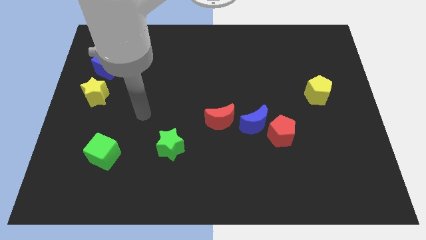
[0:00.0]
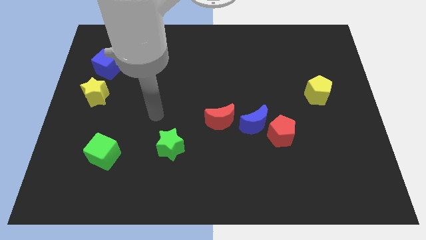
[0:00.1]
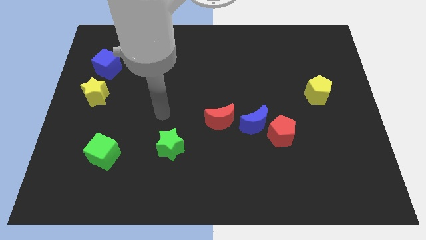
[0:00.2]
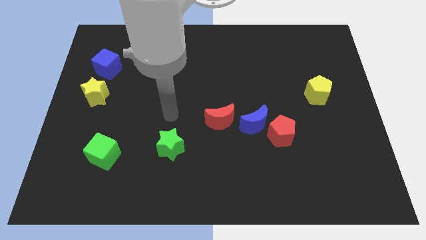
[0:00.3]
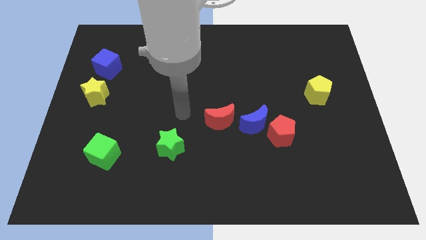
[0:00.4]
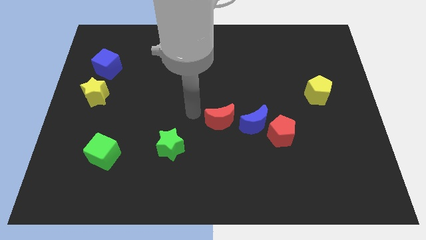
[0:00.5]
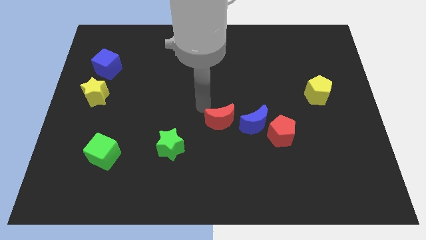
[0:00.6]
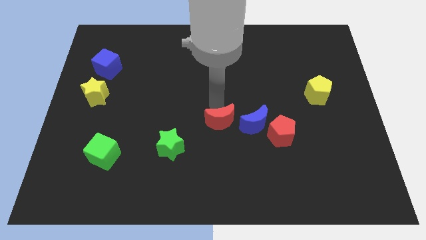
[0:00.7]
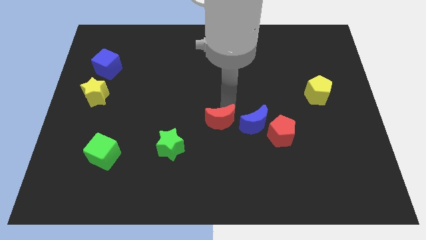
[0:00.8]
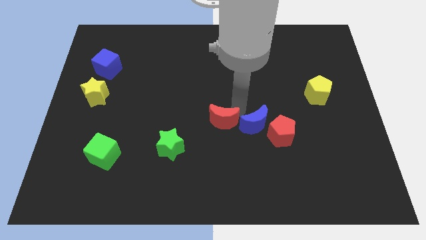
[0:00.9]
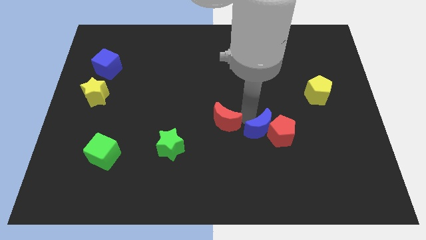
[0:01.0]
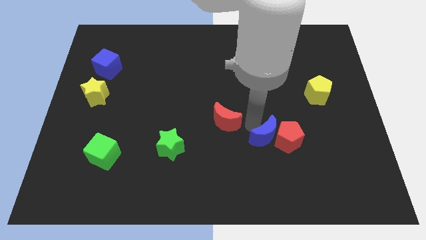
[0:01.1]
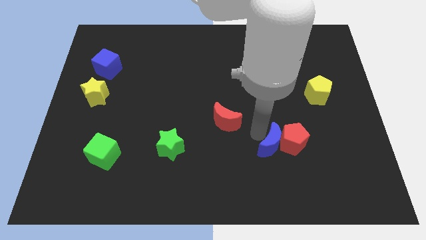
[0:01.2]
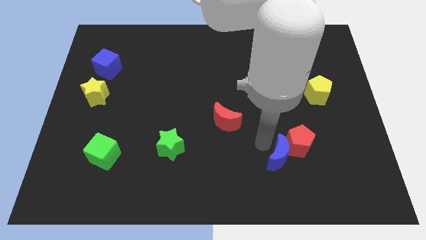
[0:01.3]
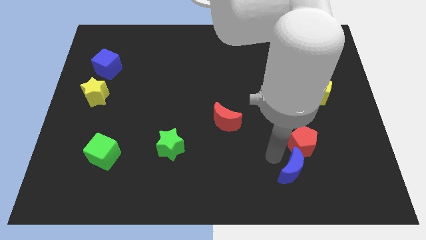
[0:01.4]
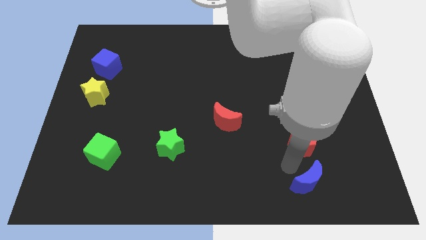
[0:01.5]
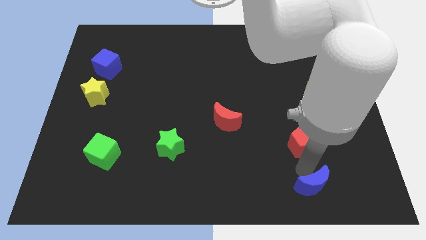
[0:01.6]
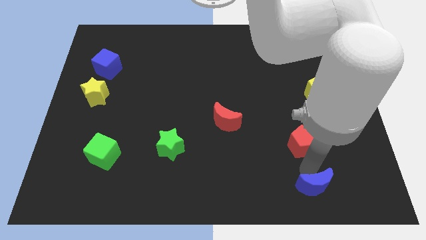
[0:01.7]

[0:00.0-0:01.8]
move the red pentagon away from the blue moon

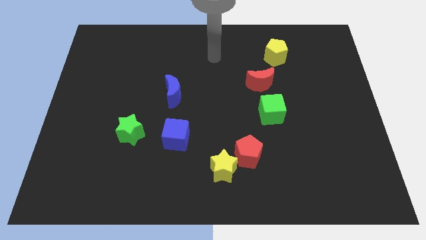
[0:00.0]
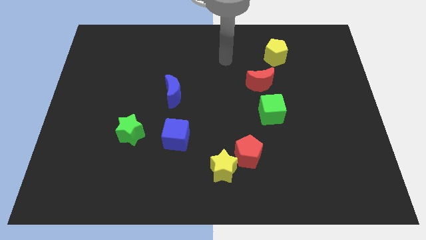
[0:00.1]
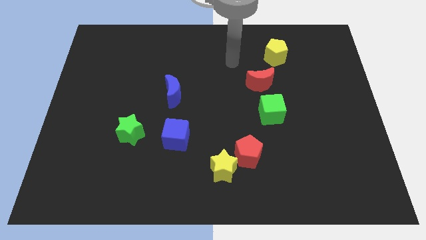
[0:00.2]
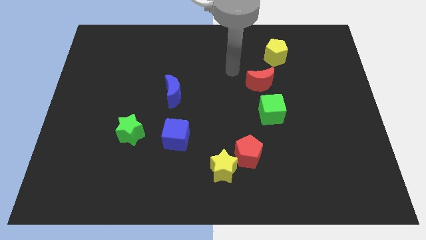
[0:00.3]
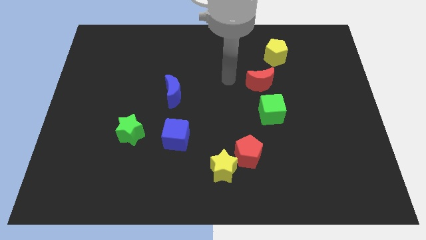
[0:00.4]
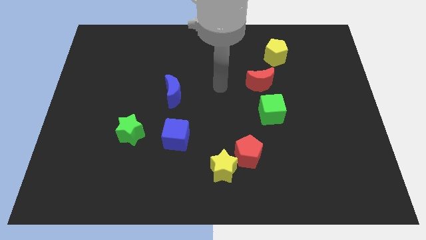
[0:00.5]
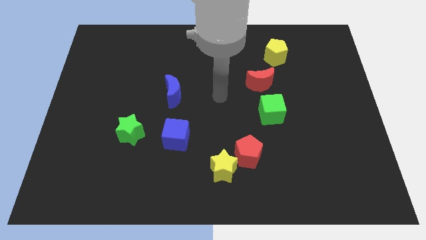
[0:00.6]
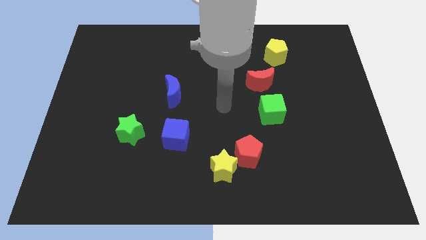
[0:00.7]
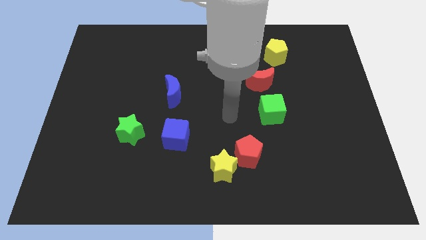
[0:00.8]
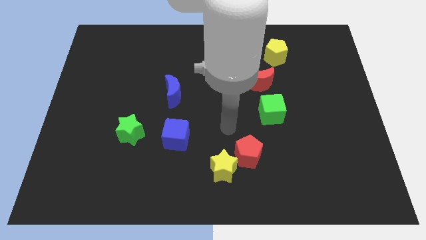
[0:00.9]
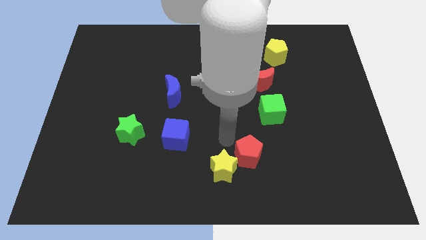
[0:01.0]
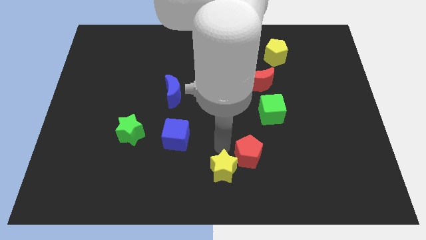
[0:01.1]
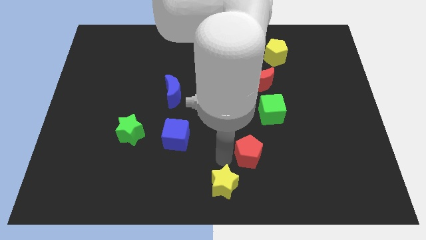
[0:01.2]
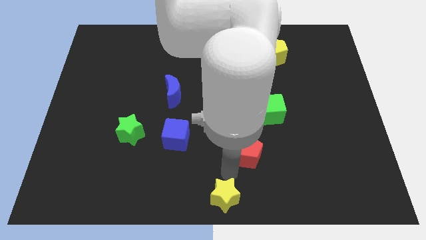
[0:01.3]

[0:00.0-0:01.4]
move the red pentagon away from the yellow star

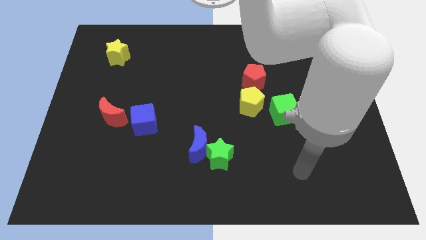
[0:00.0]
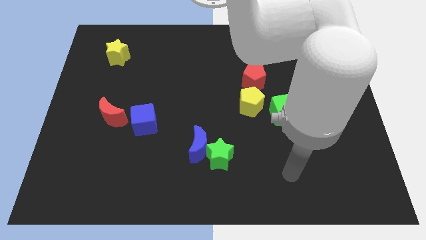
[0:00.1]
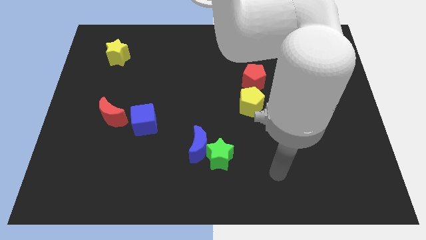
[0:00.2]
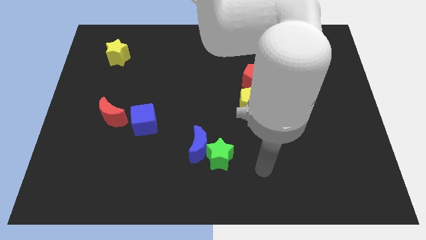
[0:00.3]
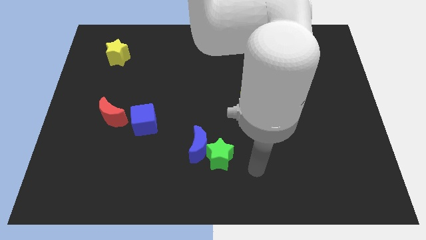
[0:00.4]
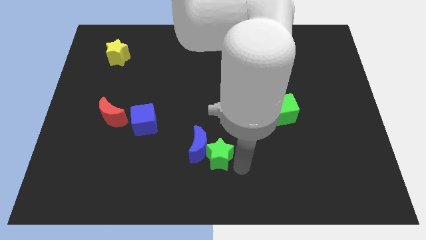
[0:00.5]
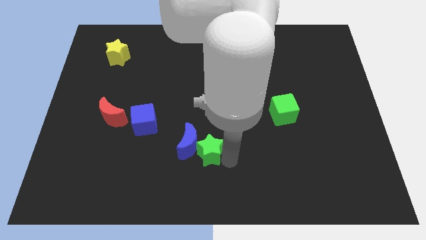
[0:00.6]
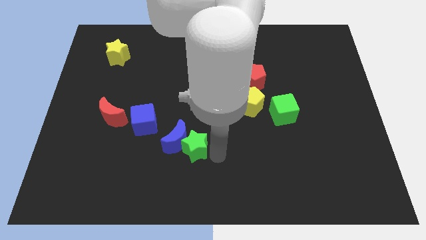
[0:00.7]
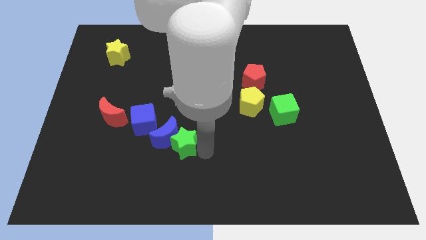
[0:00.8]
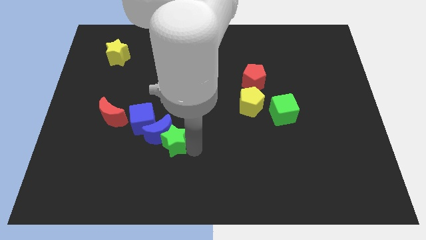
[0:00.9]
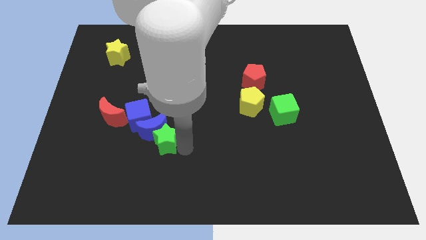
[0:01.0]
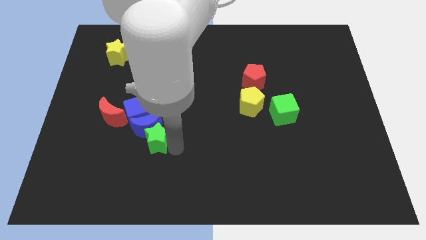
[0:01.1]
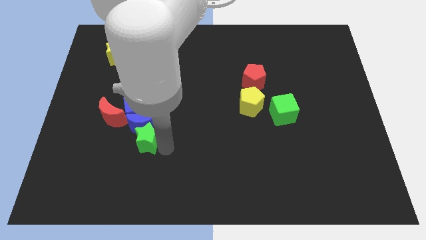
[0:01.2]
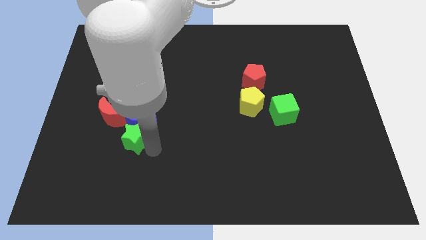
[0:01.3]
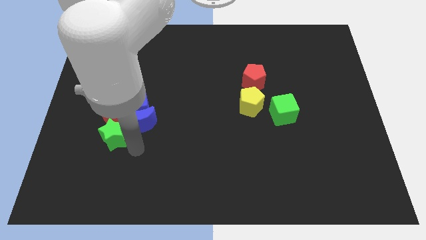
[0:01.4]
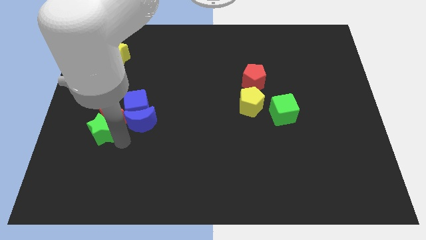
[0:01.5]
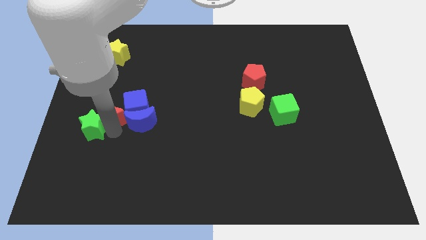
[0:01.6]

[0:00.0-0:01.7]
pull the blue moon apart from the green star

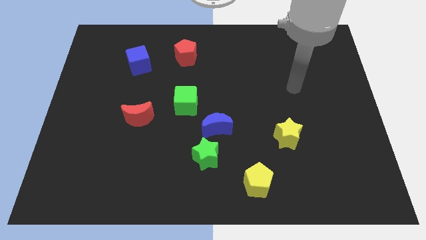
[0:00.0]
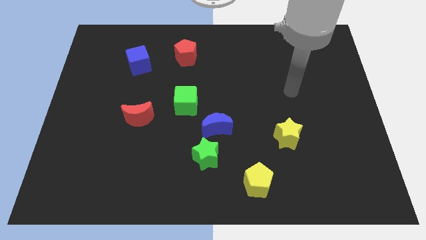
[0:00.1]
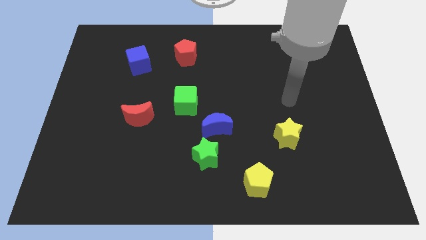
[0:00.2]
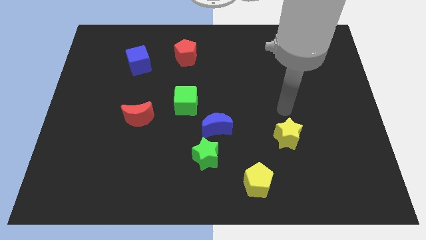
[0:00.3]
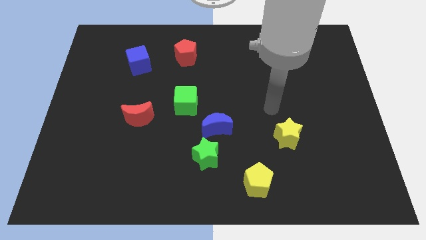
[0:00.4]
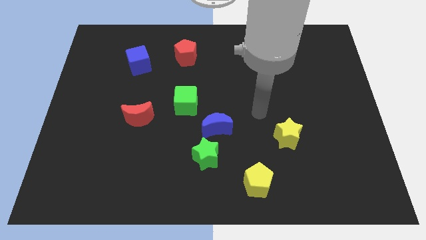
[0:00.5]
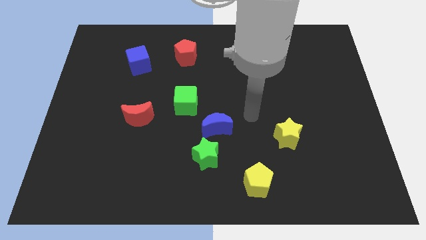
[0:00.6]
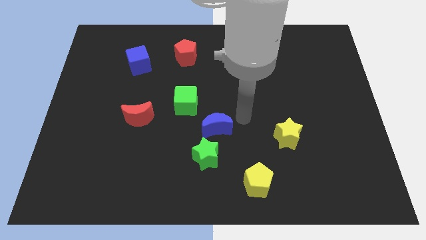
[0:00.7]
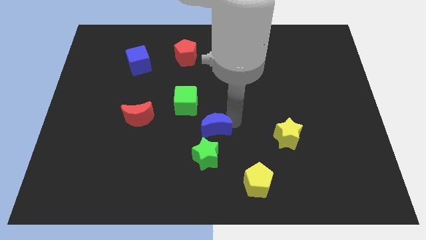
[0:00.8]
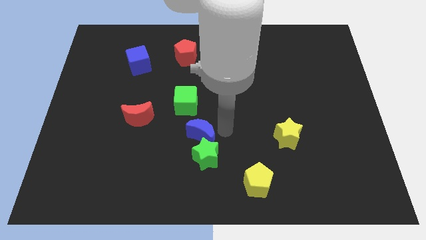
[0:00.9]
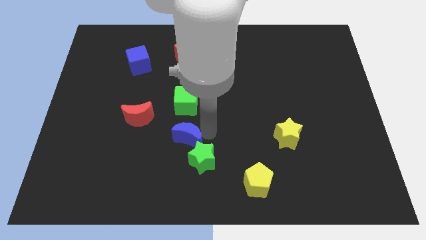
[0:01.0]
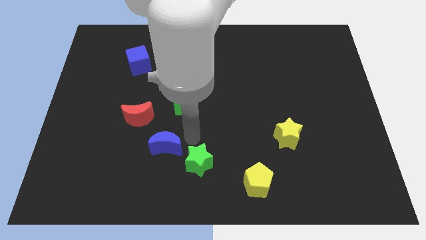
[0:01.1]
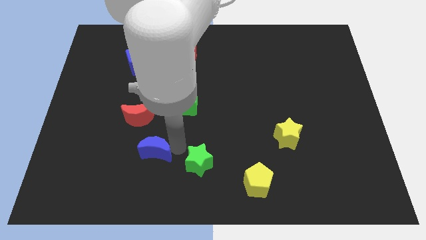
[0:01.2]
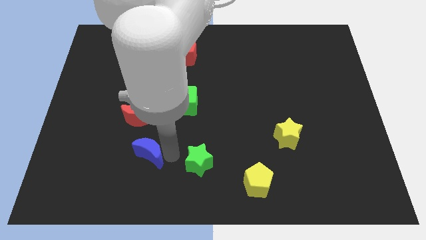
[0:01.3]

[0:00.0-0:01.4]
pull the green star apart from the blue moon

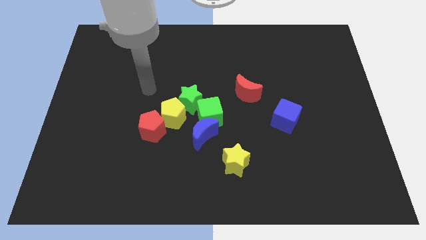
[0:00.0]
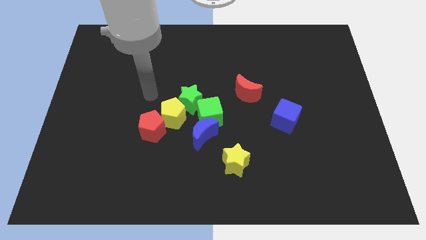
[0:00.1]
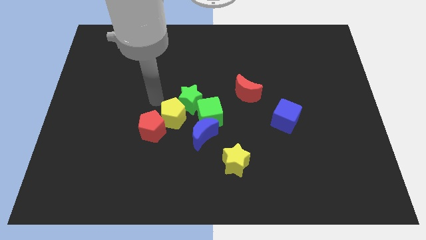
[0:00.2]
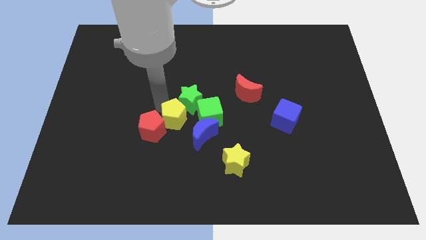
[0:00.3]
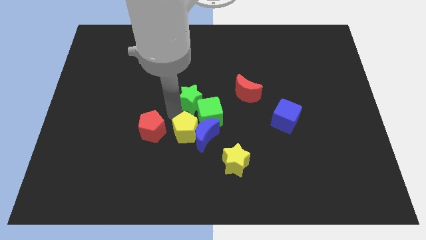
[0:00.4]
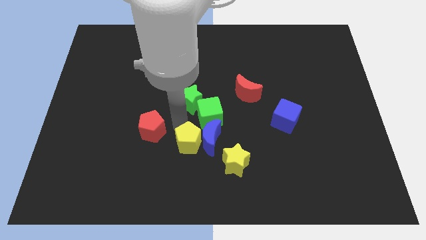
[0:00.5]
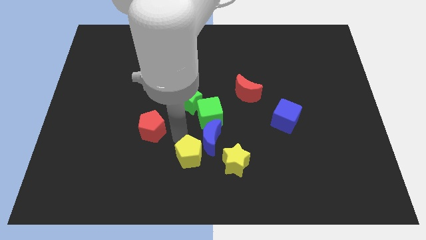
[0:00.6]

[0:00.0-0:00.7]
pull the red pentagon apart from the yellow pentagon

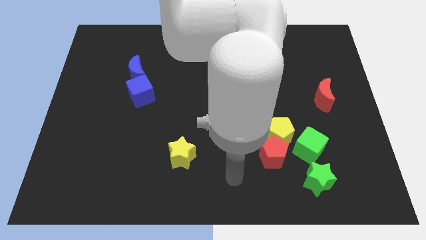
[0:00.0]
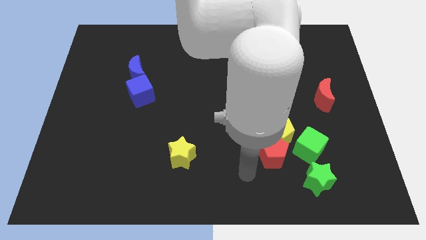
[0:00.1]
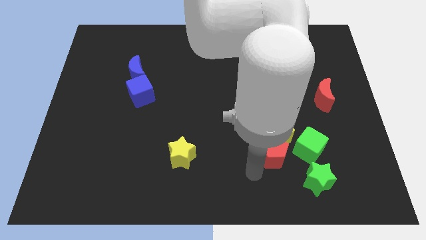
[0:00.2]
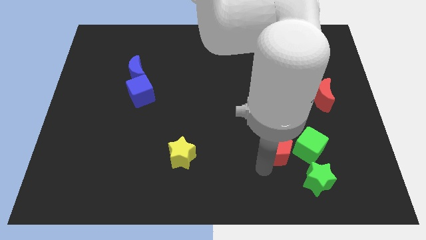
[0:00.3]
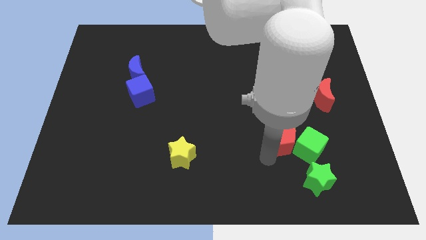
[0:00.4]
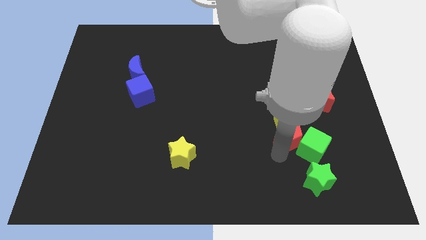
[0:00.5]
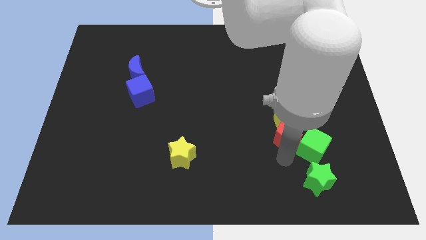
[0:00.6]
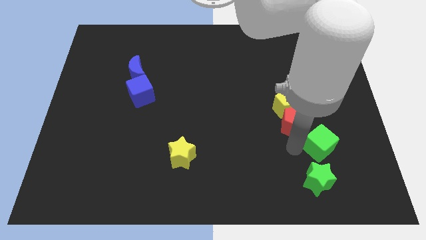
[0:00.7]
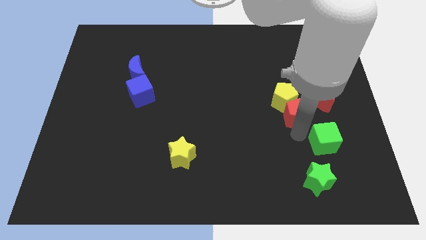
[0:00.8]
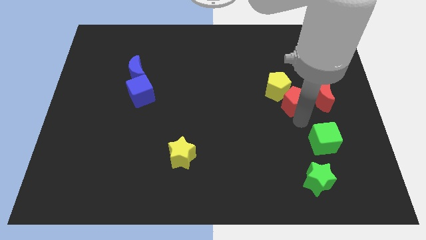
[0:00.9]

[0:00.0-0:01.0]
move the yellow pentagon away from the red pentagon and green cube

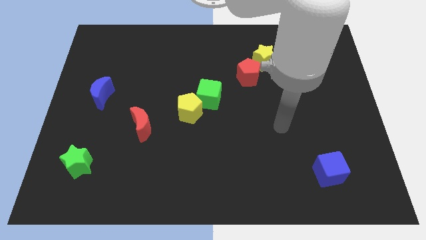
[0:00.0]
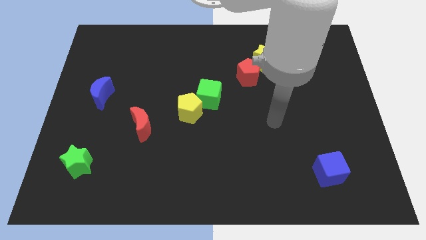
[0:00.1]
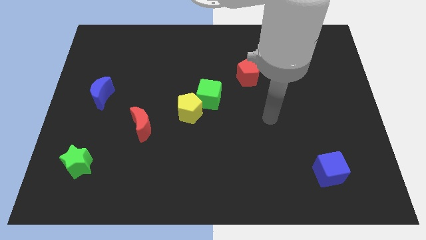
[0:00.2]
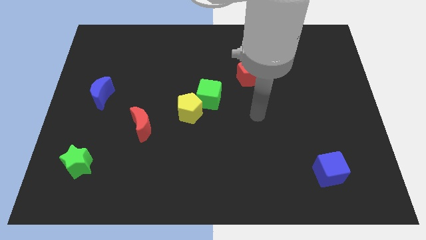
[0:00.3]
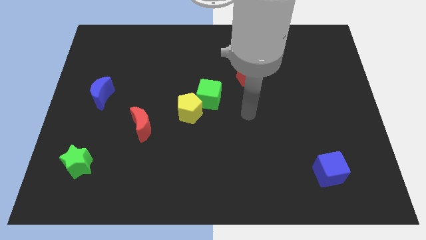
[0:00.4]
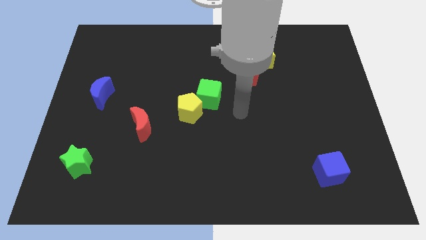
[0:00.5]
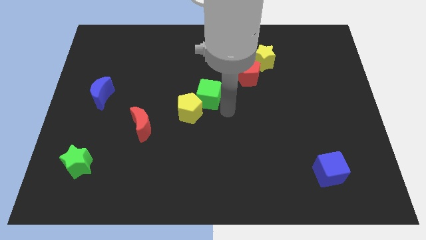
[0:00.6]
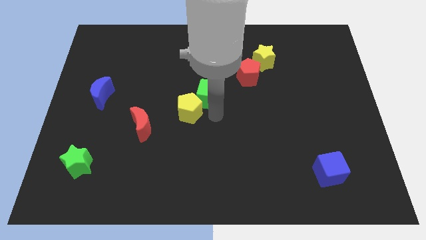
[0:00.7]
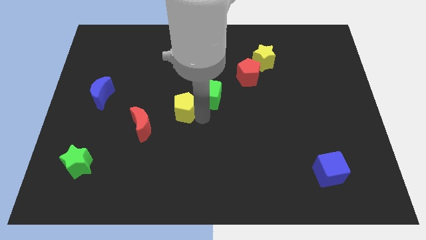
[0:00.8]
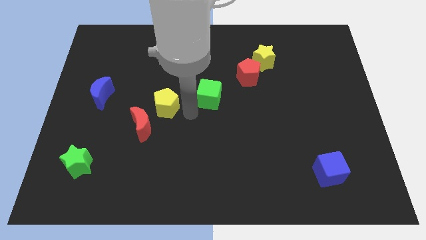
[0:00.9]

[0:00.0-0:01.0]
pull the green cube apart from the yellow pentagon

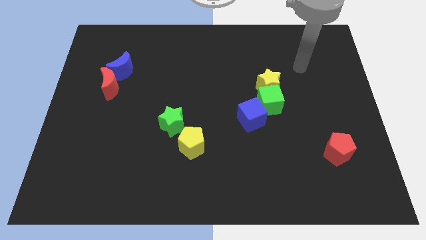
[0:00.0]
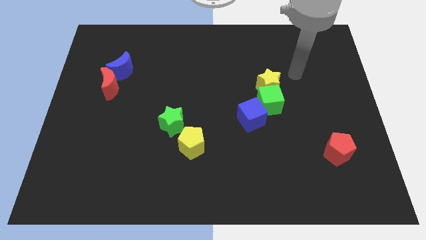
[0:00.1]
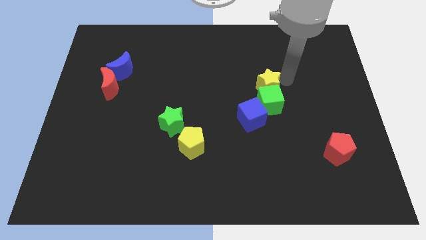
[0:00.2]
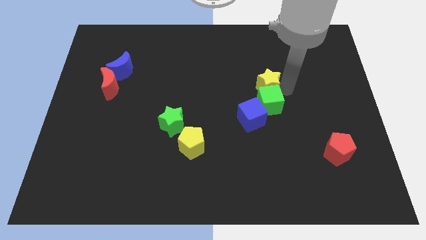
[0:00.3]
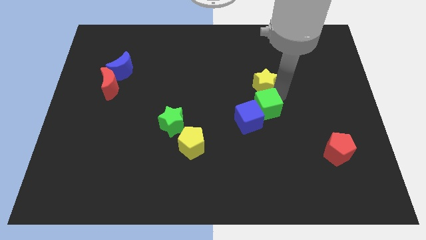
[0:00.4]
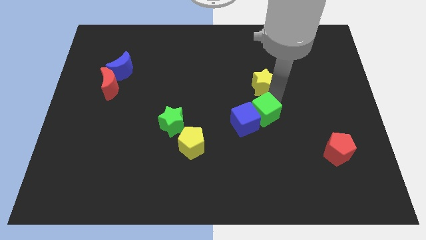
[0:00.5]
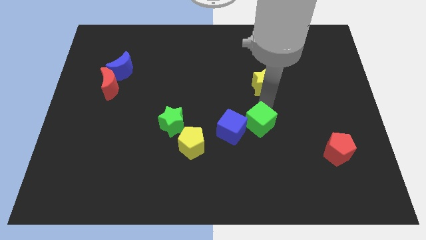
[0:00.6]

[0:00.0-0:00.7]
move the yellow star away from the green cube
